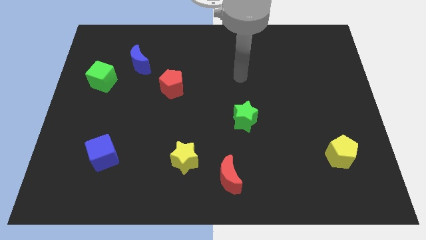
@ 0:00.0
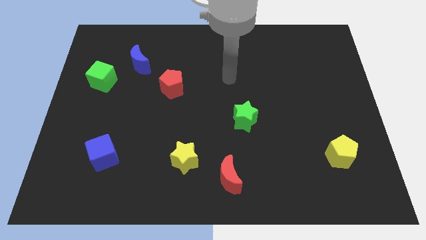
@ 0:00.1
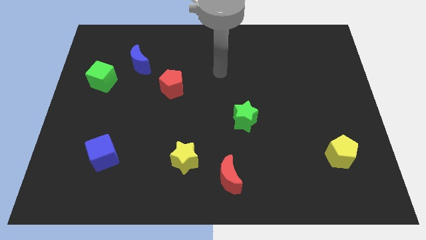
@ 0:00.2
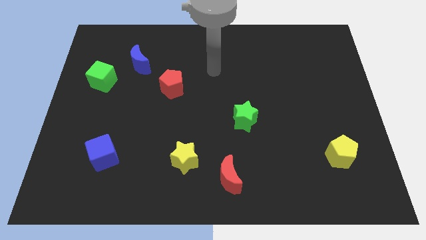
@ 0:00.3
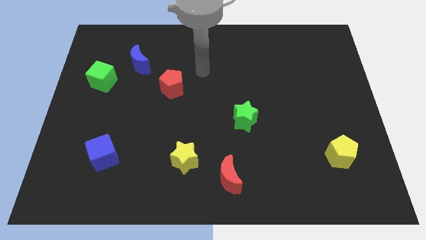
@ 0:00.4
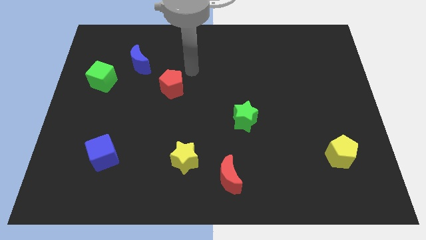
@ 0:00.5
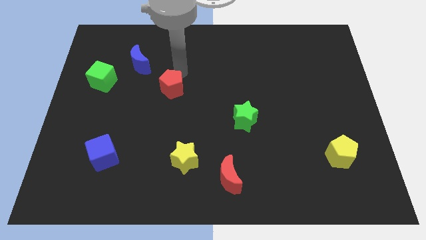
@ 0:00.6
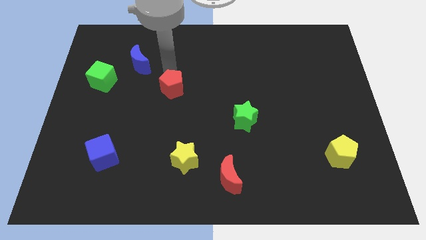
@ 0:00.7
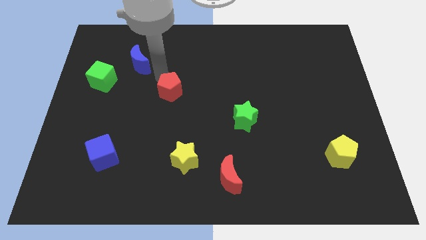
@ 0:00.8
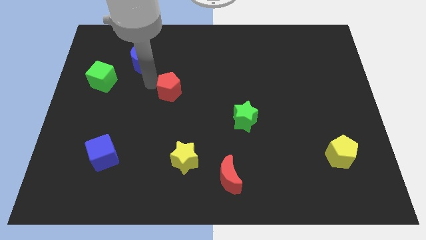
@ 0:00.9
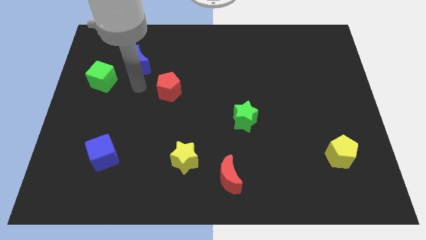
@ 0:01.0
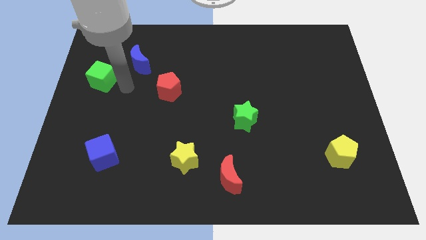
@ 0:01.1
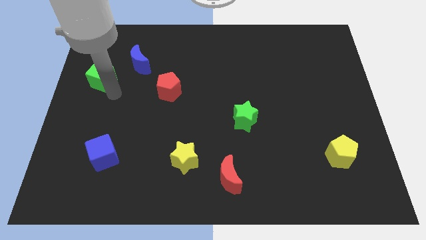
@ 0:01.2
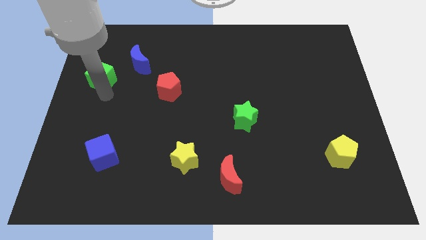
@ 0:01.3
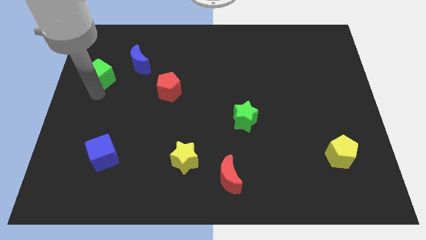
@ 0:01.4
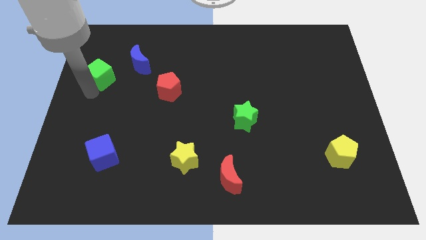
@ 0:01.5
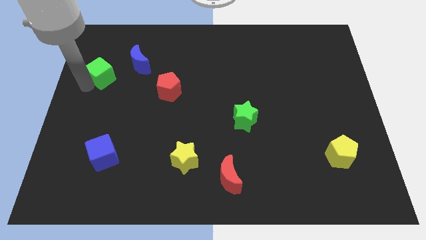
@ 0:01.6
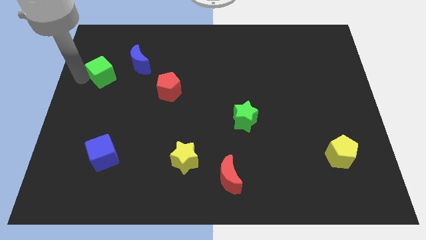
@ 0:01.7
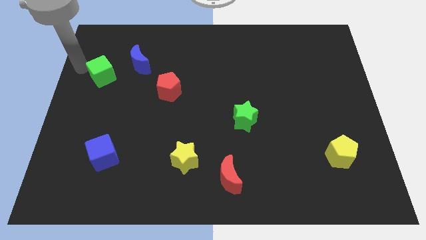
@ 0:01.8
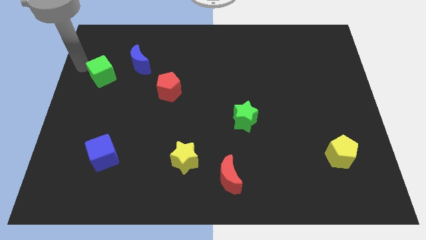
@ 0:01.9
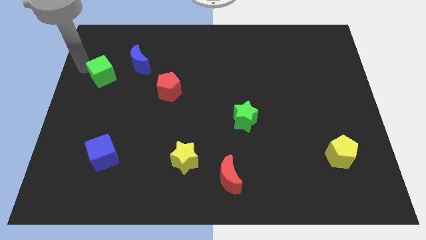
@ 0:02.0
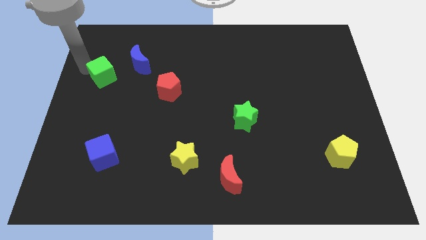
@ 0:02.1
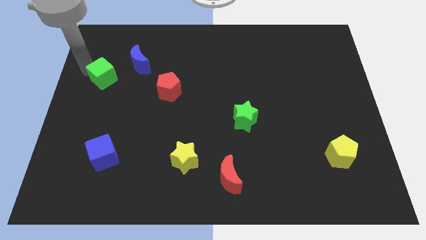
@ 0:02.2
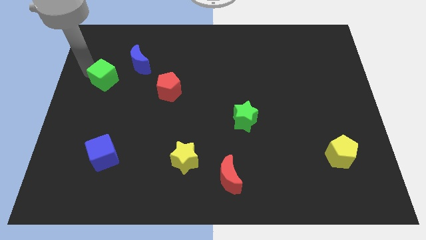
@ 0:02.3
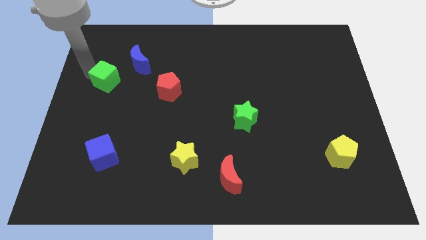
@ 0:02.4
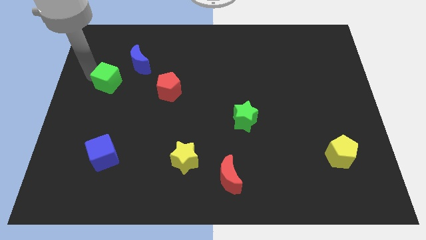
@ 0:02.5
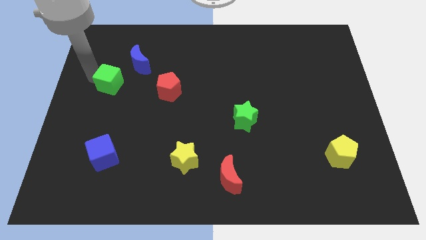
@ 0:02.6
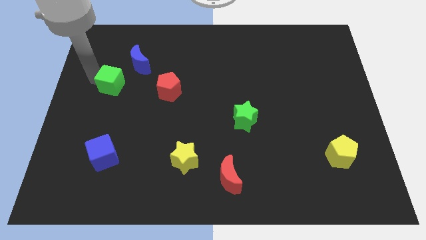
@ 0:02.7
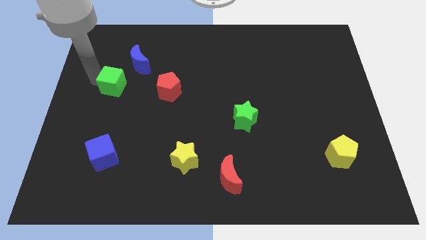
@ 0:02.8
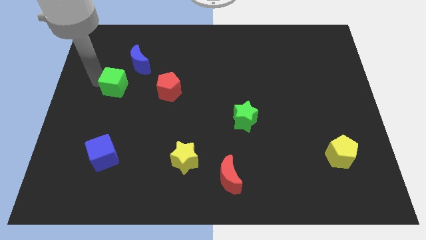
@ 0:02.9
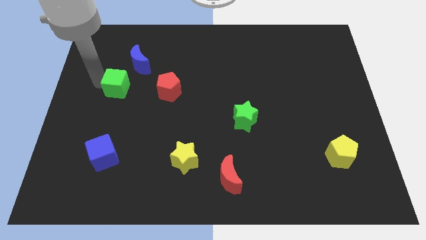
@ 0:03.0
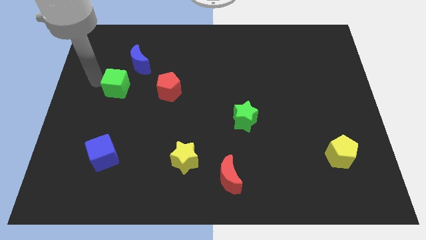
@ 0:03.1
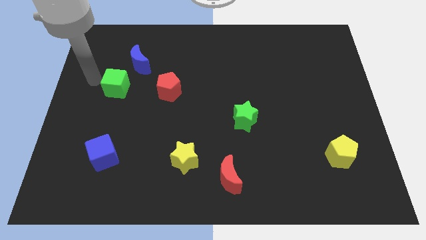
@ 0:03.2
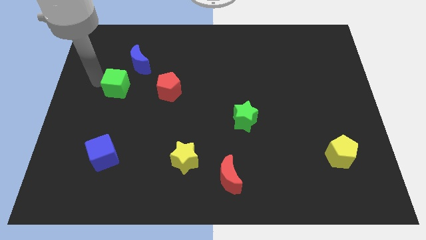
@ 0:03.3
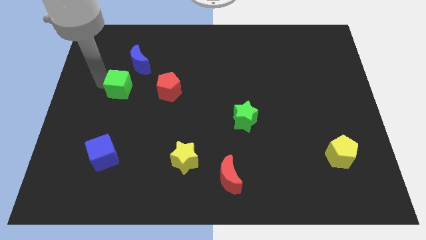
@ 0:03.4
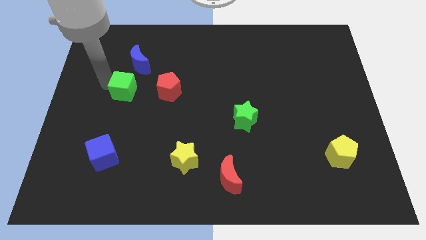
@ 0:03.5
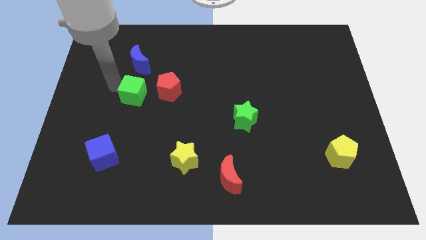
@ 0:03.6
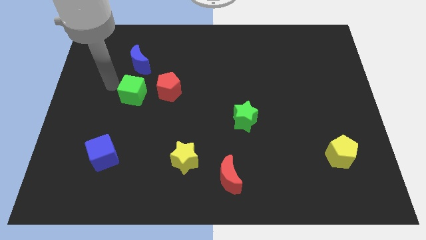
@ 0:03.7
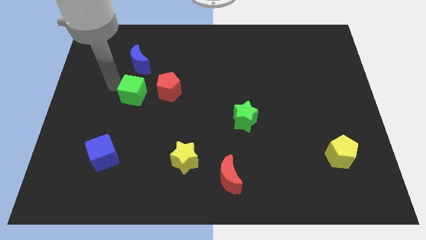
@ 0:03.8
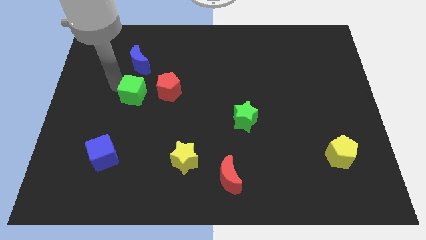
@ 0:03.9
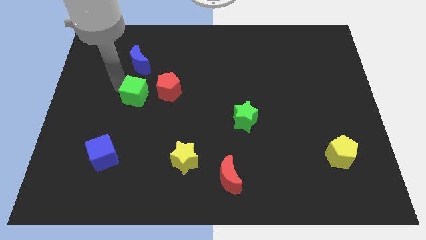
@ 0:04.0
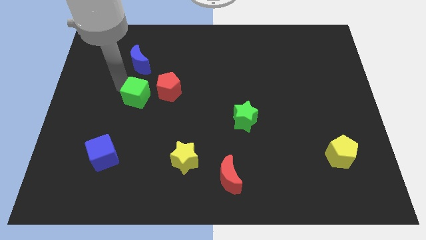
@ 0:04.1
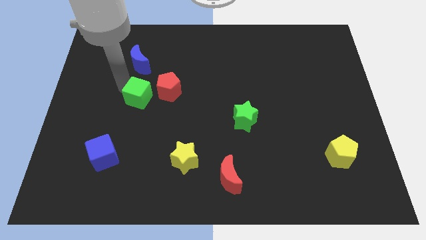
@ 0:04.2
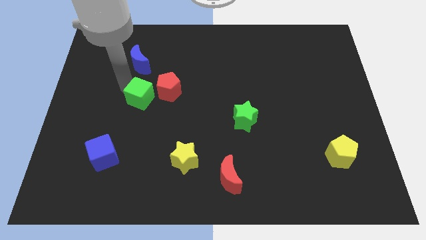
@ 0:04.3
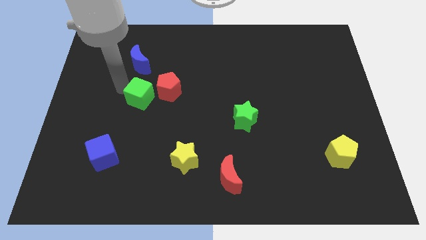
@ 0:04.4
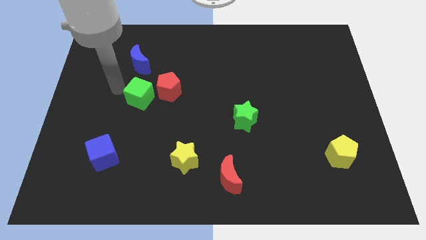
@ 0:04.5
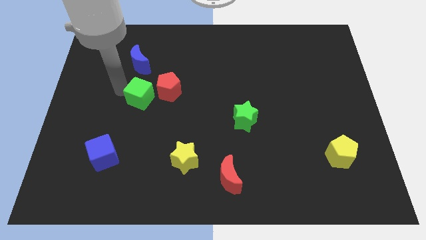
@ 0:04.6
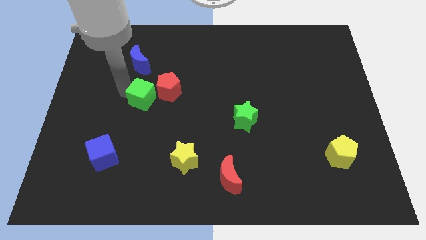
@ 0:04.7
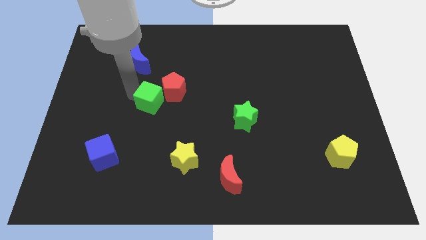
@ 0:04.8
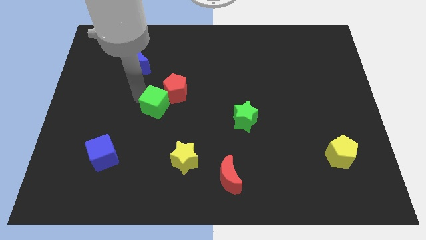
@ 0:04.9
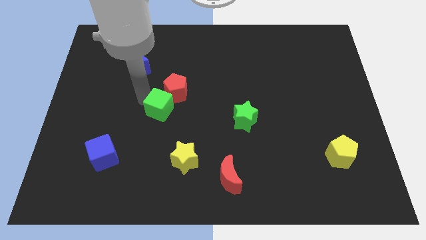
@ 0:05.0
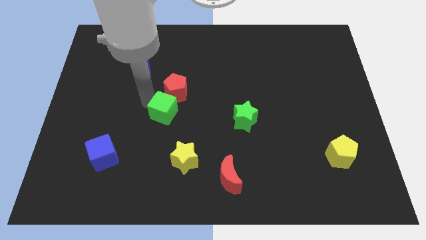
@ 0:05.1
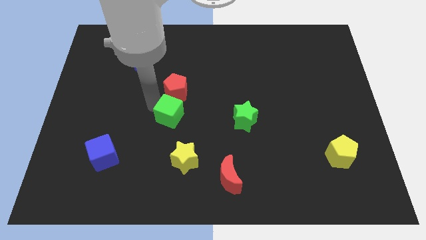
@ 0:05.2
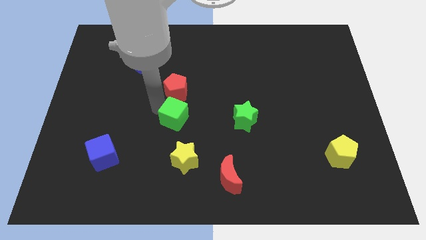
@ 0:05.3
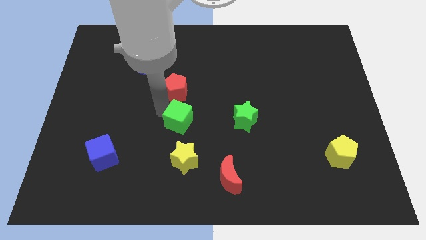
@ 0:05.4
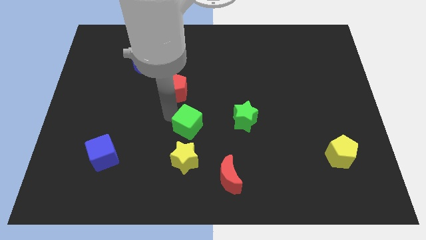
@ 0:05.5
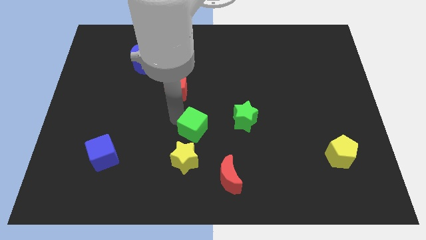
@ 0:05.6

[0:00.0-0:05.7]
put the green cube diagonally up and to the right of the yellow star

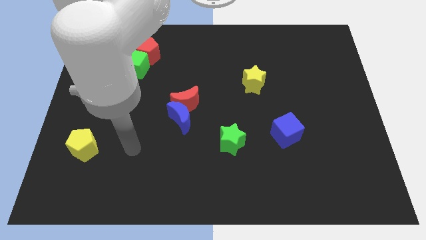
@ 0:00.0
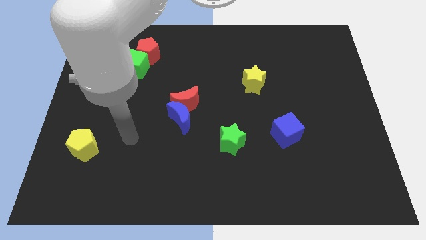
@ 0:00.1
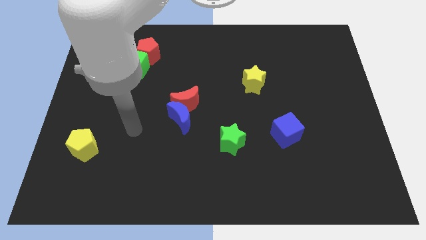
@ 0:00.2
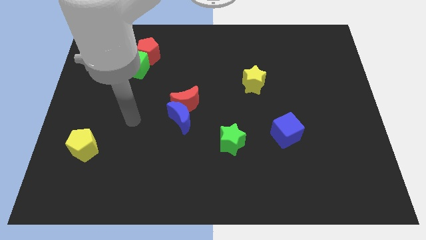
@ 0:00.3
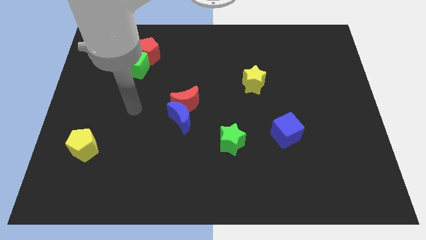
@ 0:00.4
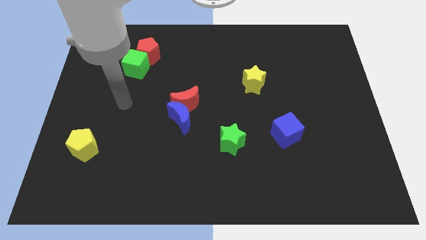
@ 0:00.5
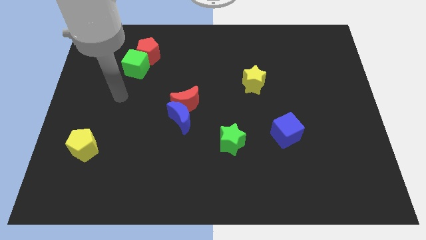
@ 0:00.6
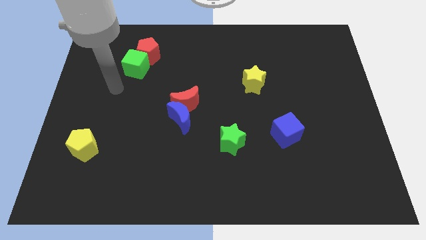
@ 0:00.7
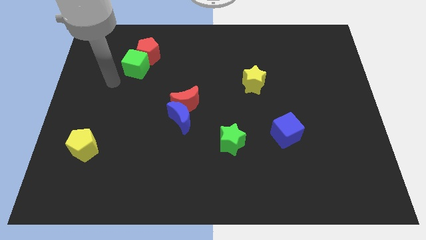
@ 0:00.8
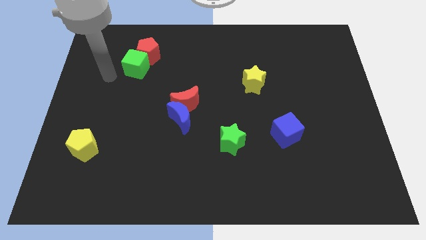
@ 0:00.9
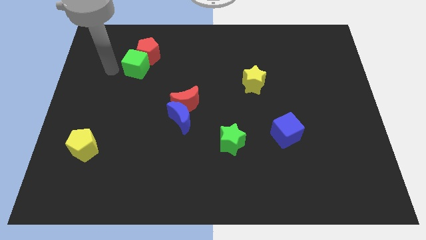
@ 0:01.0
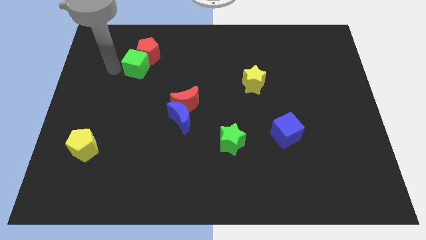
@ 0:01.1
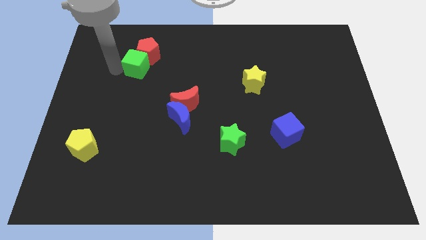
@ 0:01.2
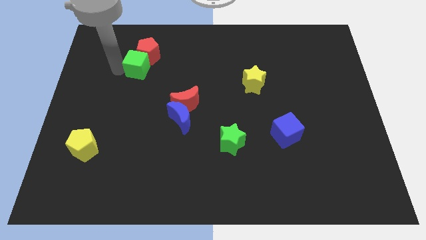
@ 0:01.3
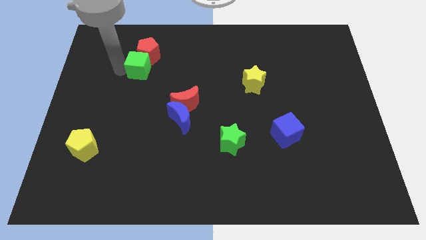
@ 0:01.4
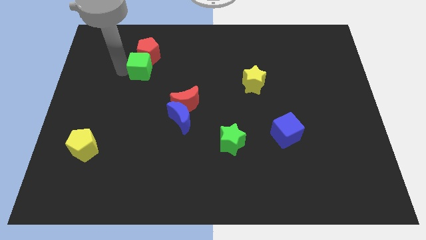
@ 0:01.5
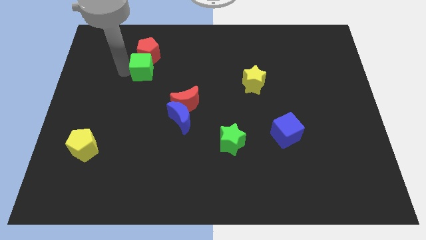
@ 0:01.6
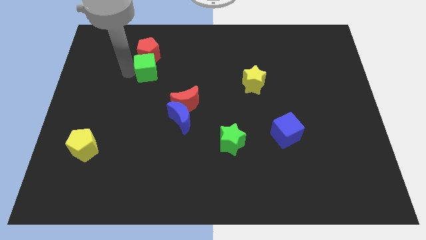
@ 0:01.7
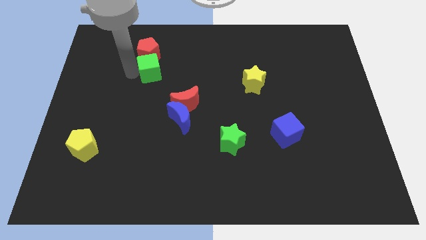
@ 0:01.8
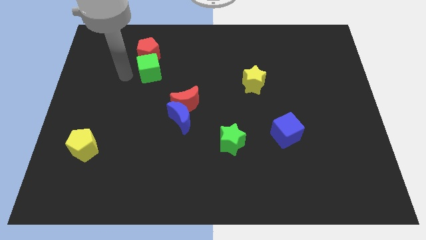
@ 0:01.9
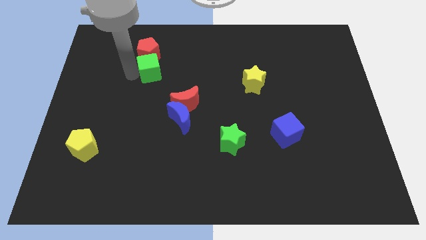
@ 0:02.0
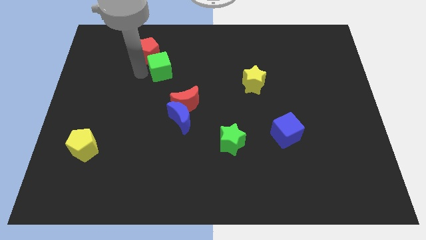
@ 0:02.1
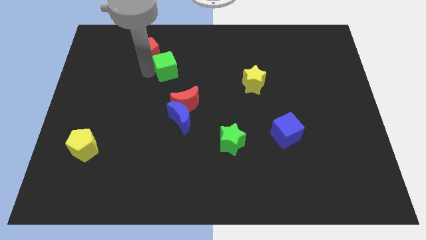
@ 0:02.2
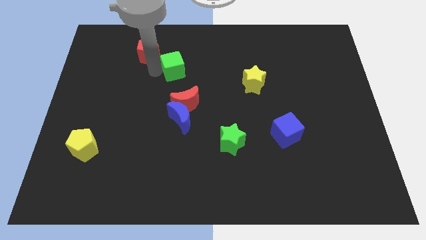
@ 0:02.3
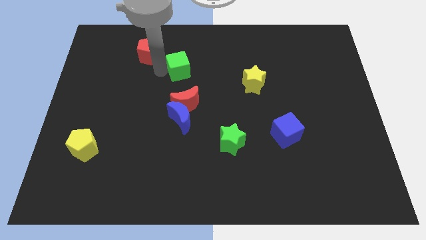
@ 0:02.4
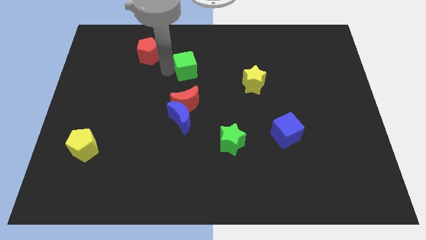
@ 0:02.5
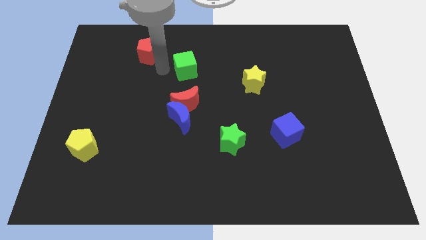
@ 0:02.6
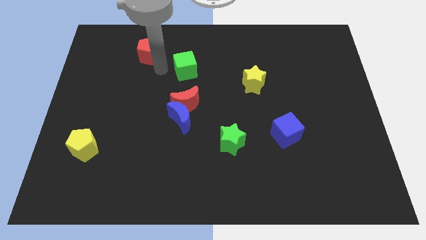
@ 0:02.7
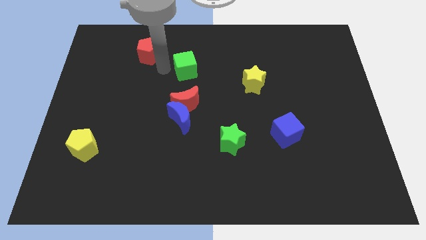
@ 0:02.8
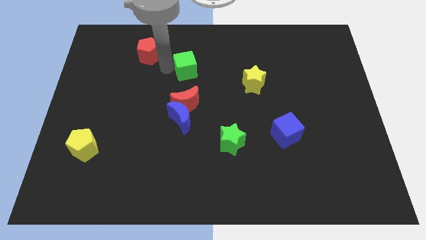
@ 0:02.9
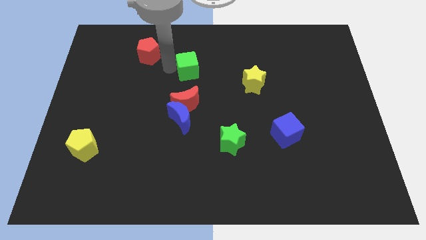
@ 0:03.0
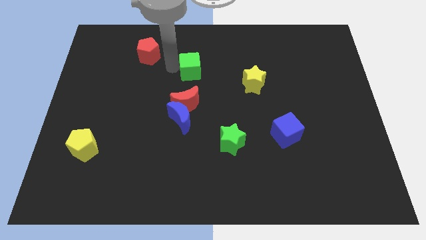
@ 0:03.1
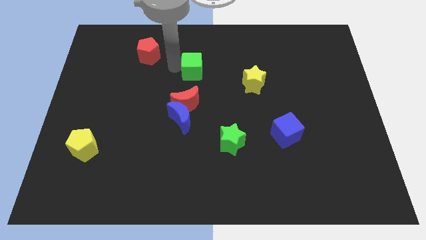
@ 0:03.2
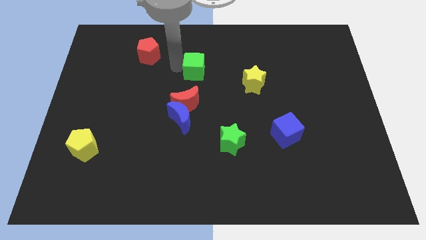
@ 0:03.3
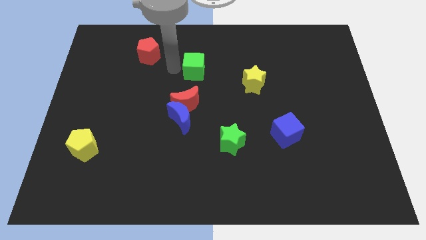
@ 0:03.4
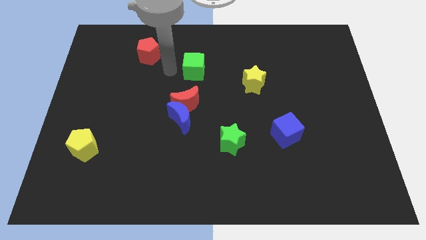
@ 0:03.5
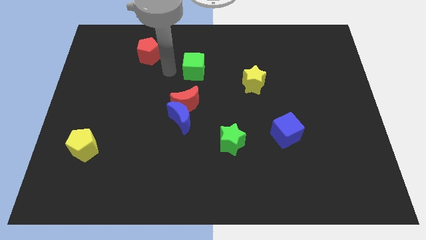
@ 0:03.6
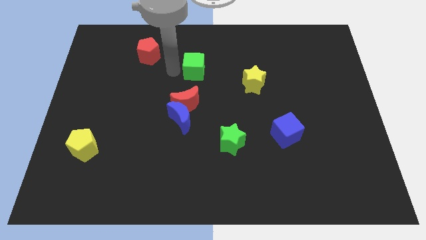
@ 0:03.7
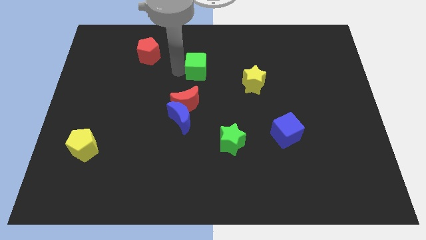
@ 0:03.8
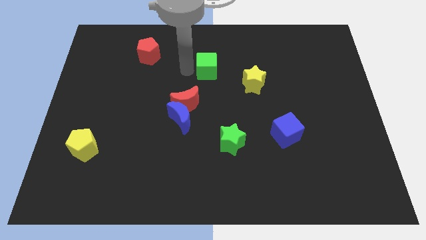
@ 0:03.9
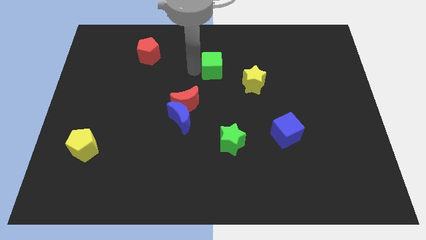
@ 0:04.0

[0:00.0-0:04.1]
push the green cube to the top left side of the yellow star
